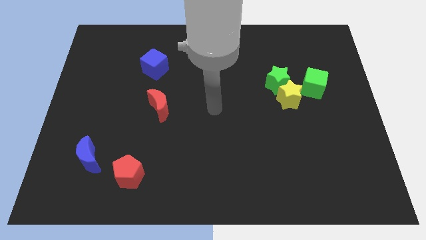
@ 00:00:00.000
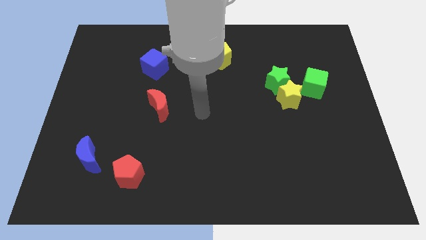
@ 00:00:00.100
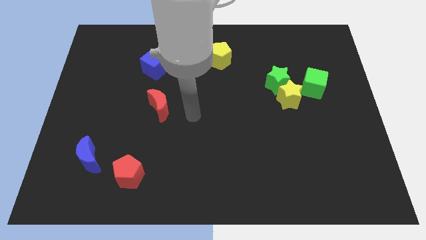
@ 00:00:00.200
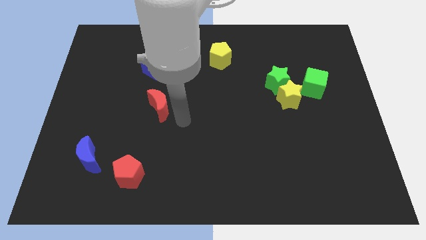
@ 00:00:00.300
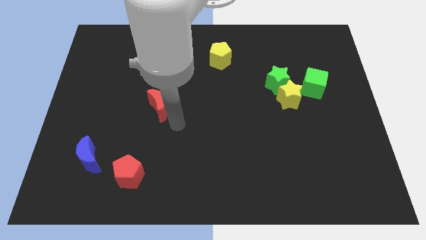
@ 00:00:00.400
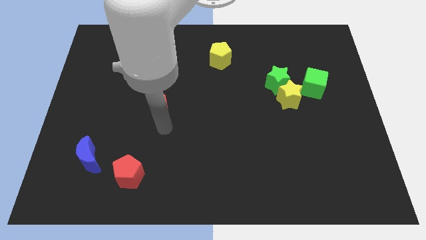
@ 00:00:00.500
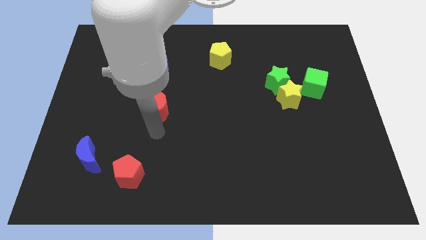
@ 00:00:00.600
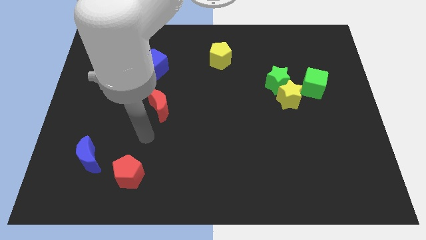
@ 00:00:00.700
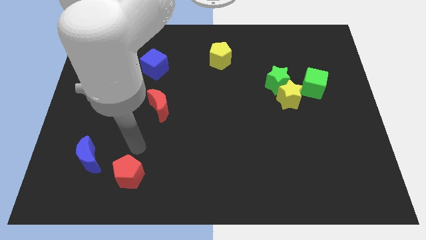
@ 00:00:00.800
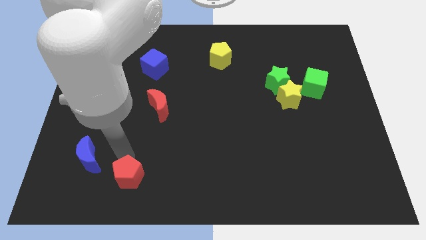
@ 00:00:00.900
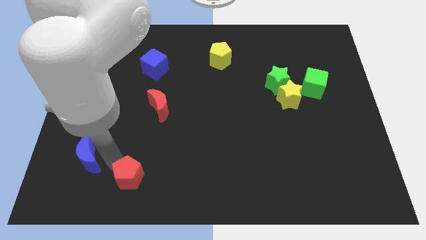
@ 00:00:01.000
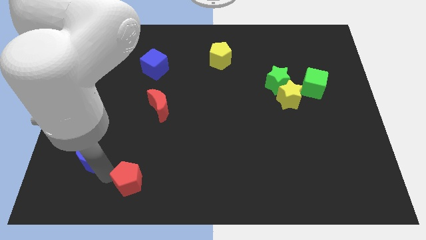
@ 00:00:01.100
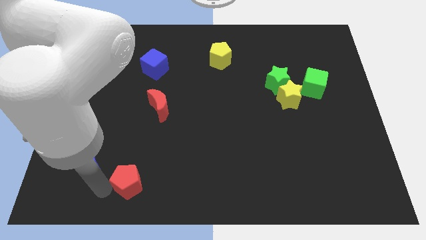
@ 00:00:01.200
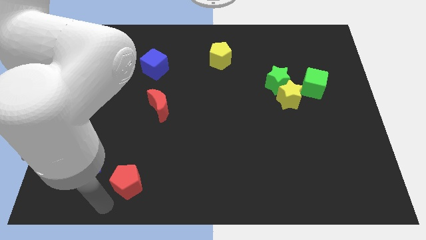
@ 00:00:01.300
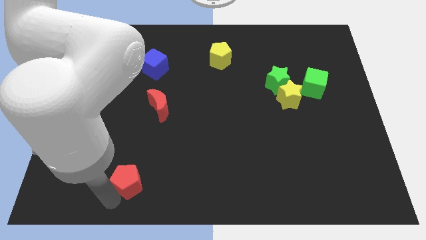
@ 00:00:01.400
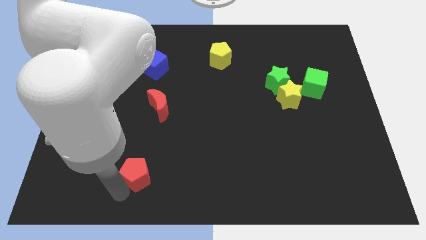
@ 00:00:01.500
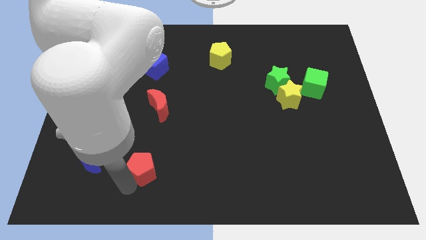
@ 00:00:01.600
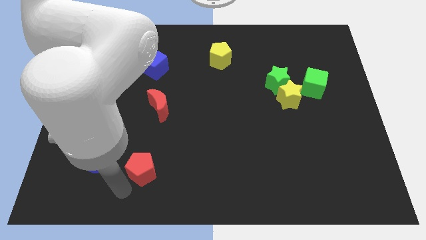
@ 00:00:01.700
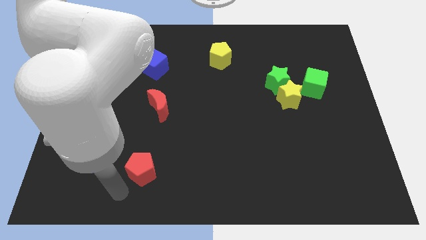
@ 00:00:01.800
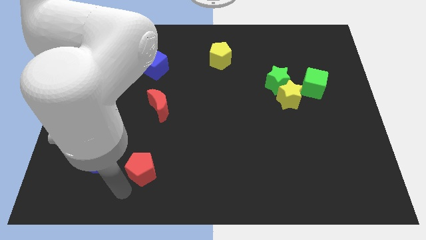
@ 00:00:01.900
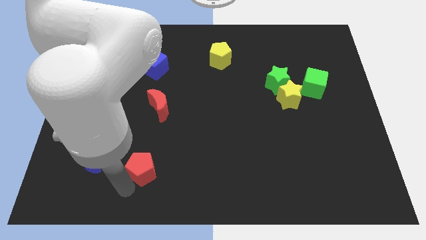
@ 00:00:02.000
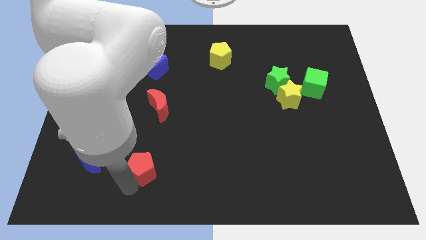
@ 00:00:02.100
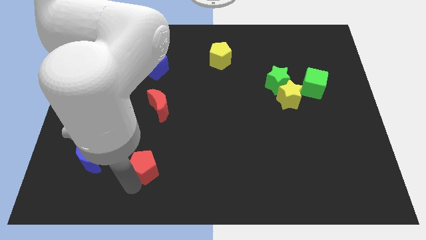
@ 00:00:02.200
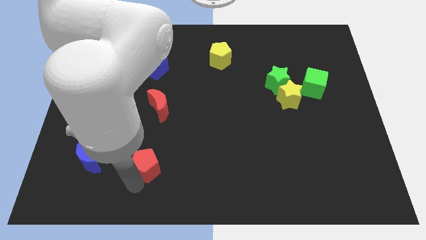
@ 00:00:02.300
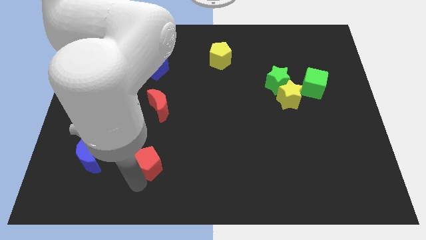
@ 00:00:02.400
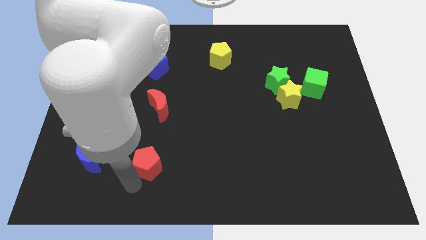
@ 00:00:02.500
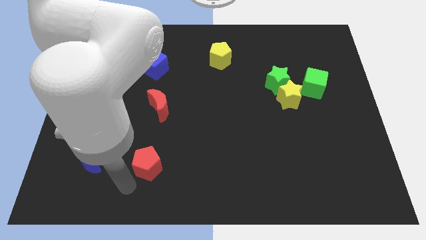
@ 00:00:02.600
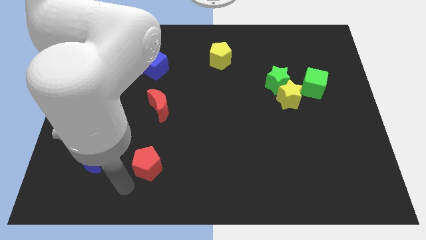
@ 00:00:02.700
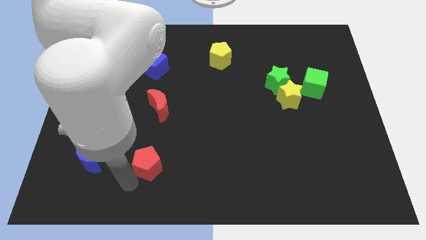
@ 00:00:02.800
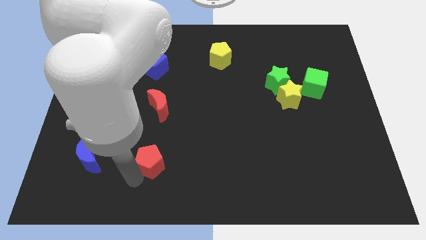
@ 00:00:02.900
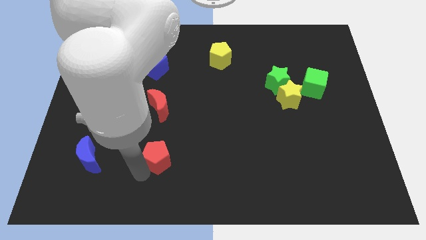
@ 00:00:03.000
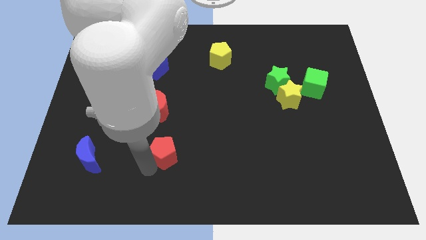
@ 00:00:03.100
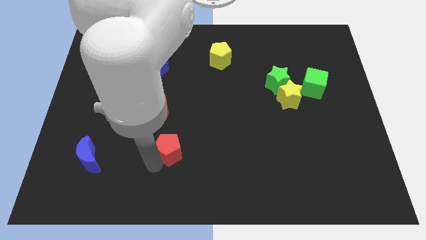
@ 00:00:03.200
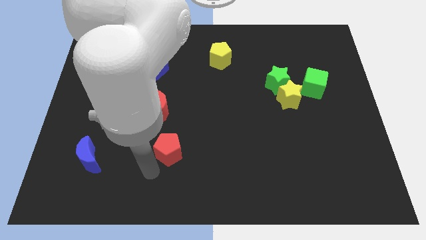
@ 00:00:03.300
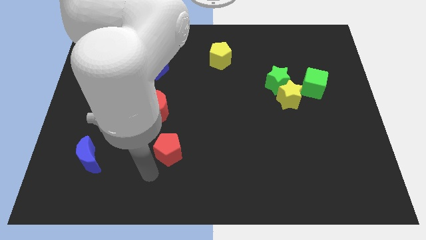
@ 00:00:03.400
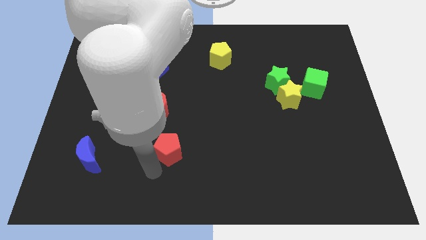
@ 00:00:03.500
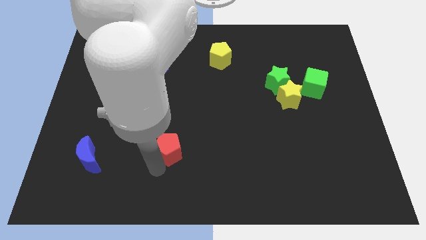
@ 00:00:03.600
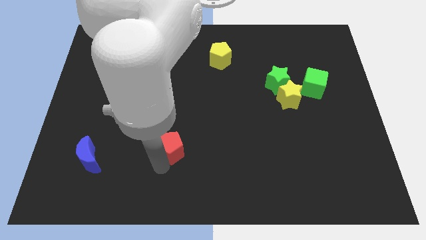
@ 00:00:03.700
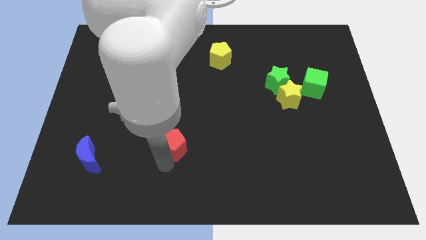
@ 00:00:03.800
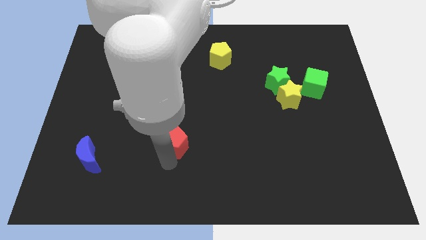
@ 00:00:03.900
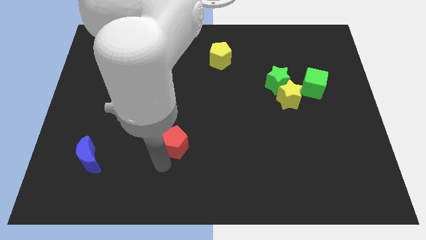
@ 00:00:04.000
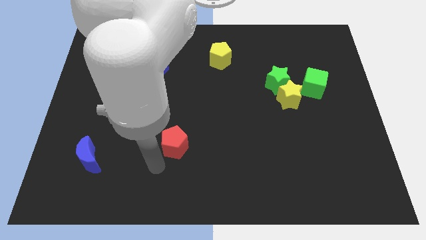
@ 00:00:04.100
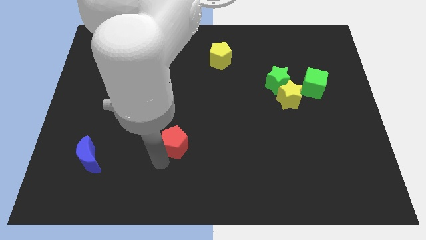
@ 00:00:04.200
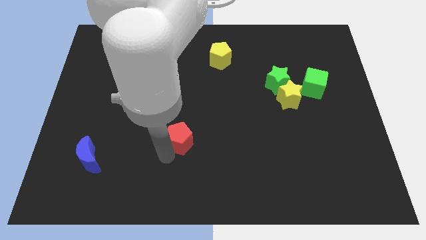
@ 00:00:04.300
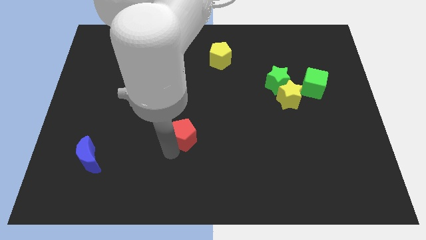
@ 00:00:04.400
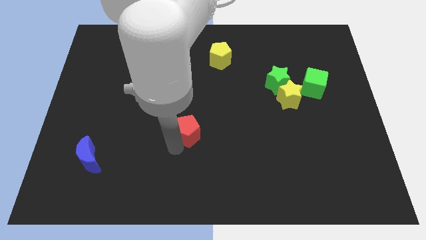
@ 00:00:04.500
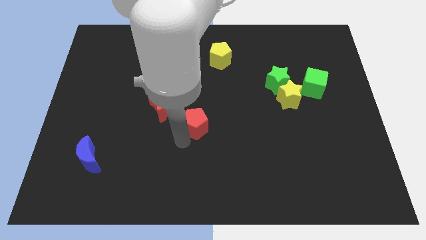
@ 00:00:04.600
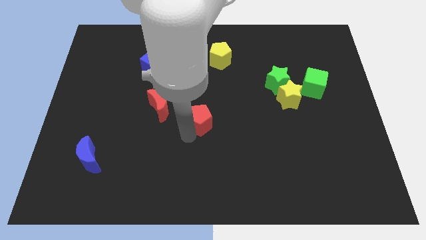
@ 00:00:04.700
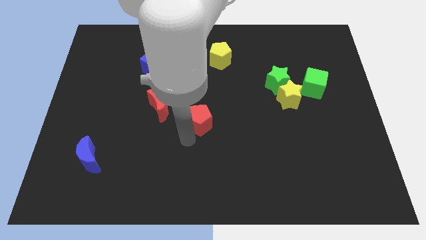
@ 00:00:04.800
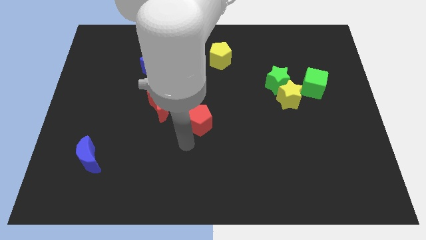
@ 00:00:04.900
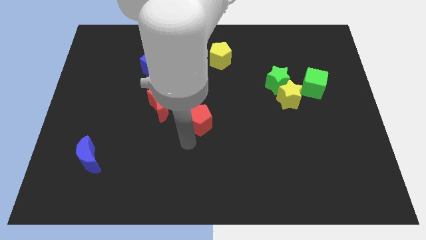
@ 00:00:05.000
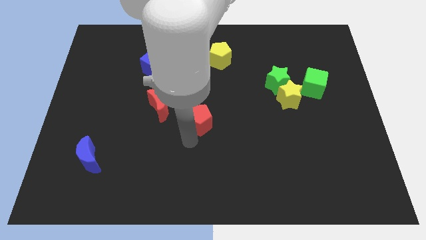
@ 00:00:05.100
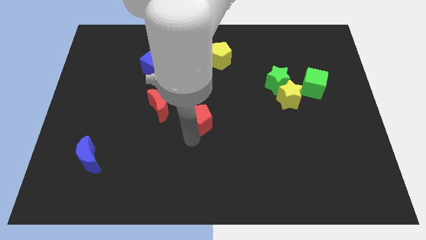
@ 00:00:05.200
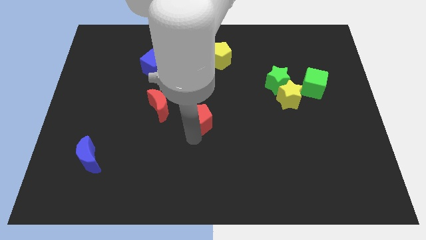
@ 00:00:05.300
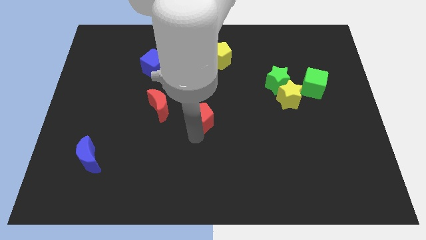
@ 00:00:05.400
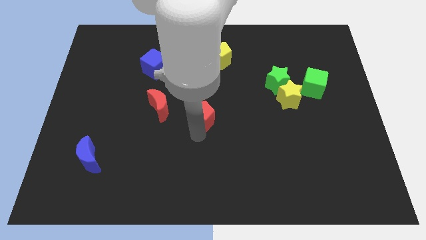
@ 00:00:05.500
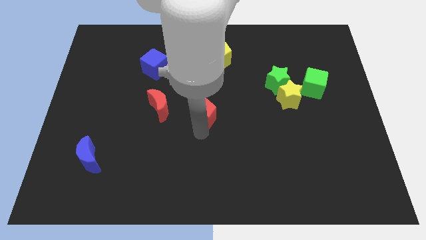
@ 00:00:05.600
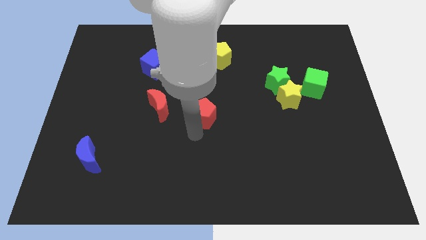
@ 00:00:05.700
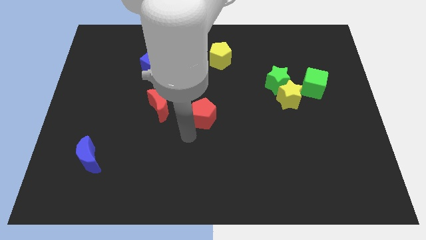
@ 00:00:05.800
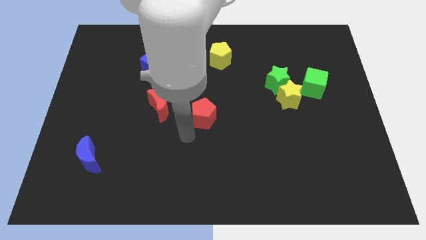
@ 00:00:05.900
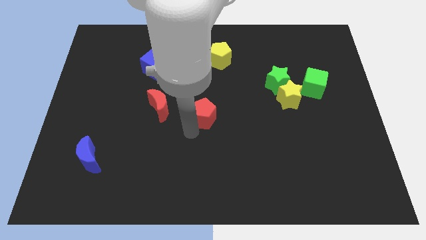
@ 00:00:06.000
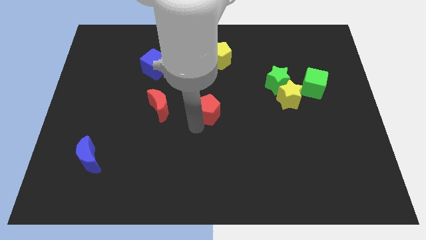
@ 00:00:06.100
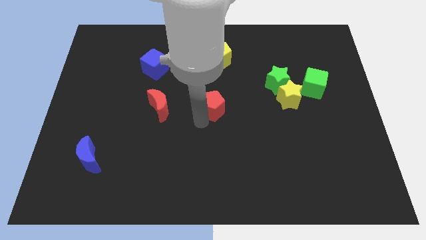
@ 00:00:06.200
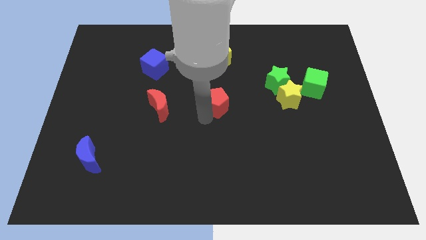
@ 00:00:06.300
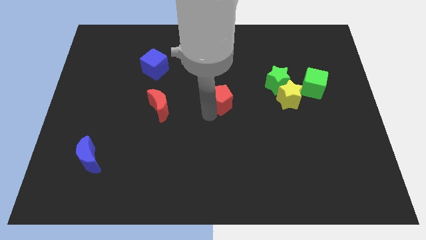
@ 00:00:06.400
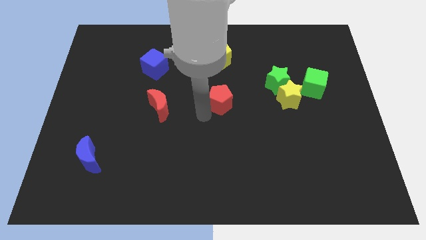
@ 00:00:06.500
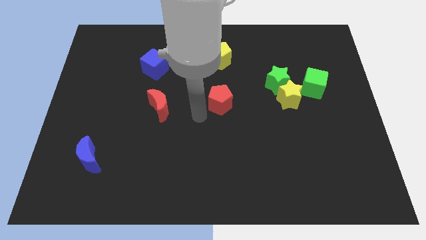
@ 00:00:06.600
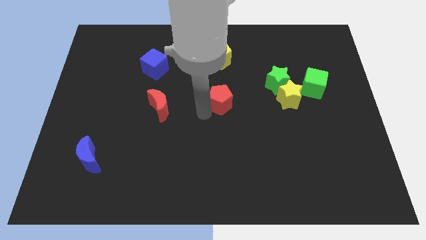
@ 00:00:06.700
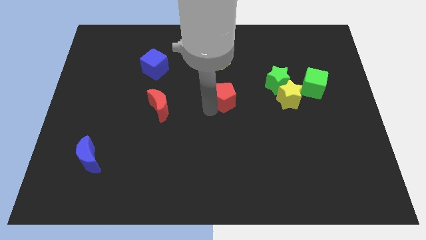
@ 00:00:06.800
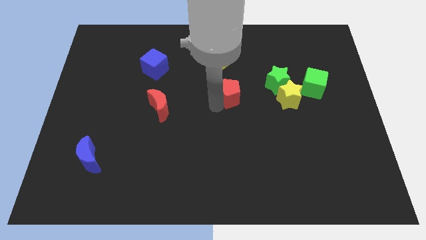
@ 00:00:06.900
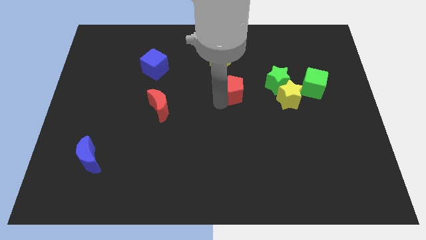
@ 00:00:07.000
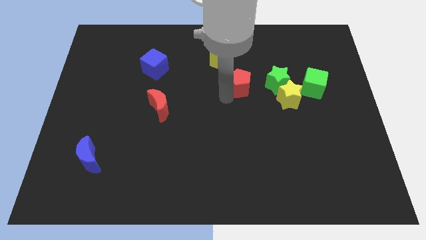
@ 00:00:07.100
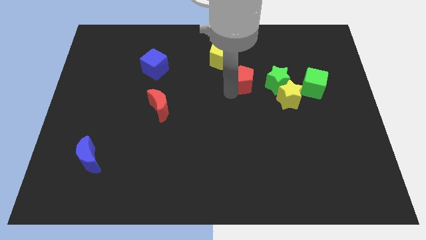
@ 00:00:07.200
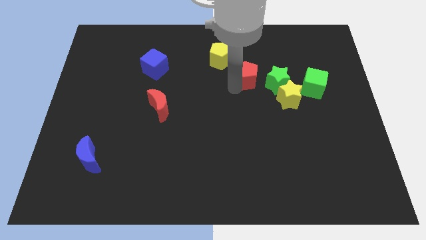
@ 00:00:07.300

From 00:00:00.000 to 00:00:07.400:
slide the red pentagon diagonally up and to the left of the yellow star
